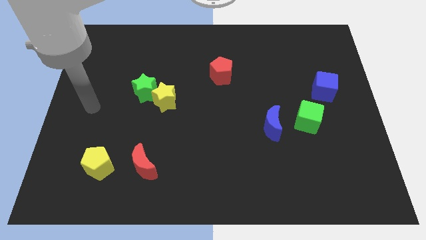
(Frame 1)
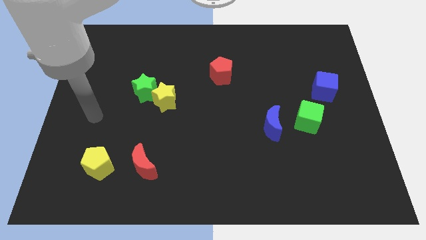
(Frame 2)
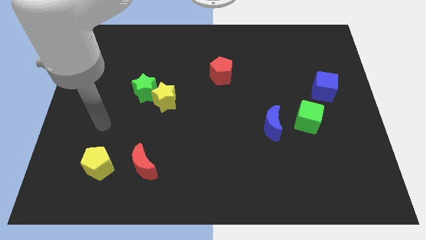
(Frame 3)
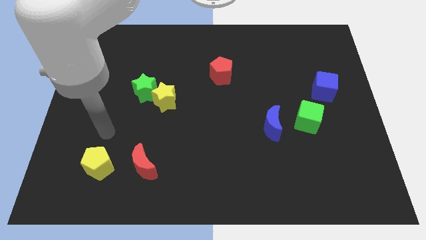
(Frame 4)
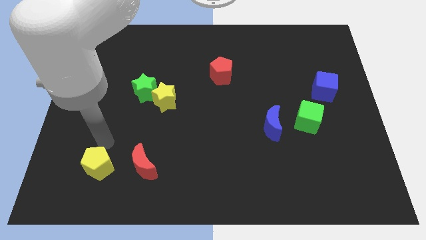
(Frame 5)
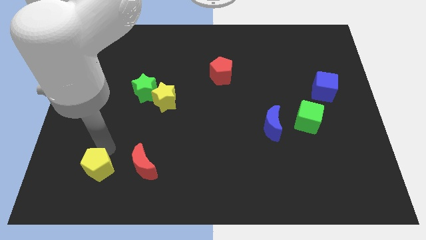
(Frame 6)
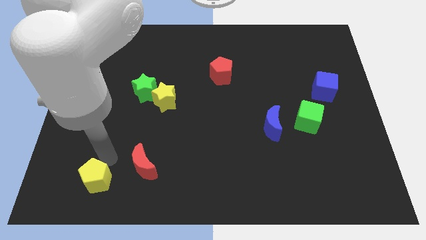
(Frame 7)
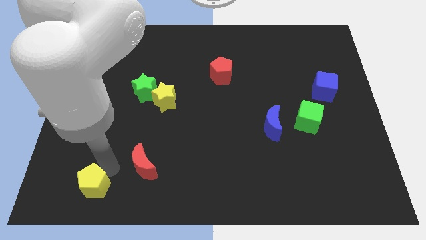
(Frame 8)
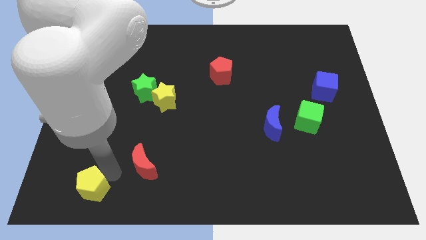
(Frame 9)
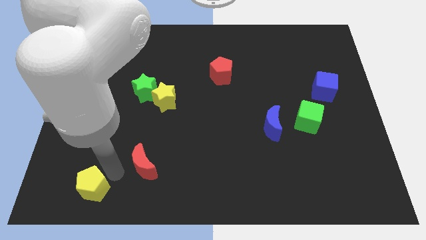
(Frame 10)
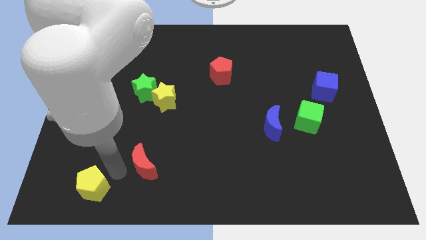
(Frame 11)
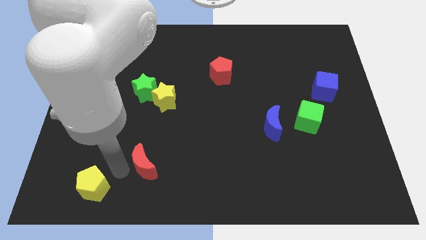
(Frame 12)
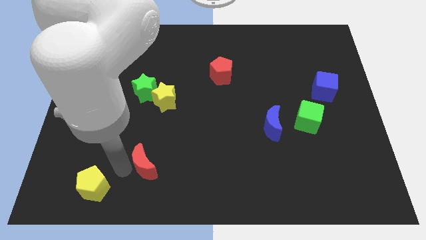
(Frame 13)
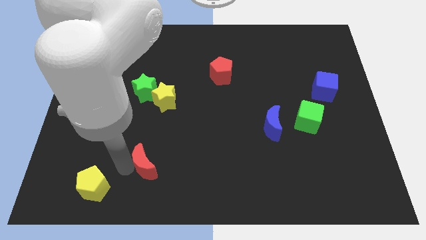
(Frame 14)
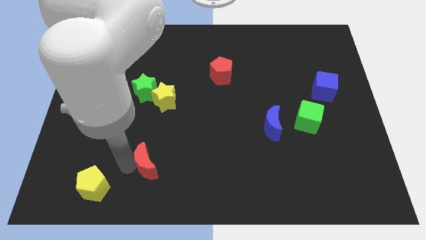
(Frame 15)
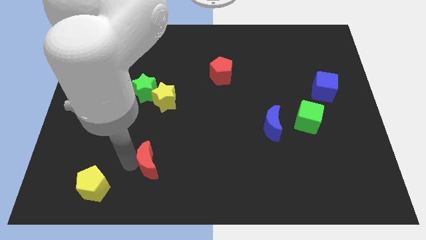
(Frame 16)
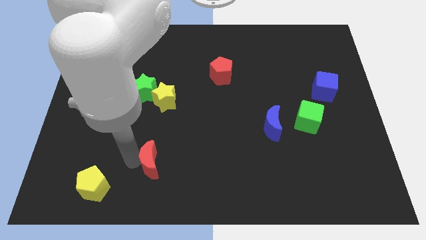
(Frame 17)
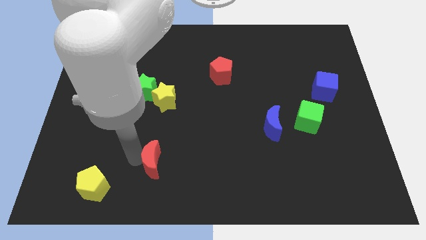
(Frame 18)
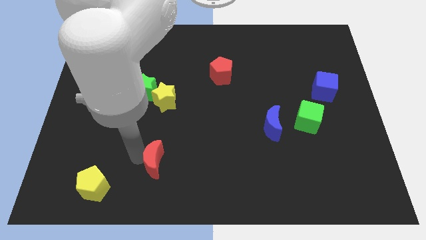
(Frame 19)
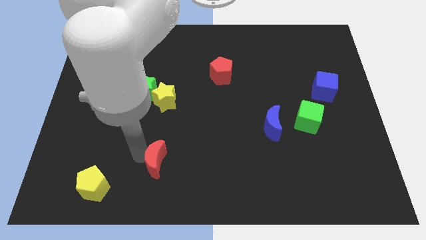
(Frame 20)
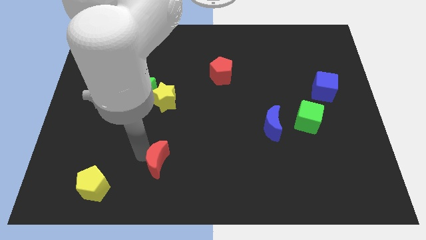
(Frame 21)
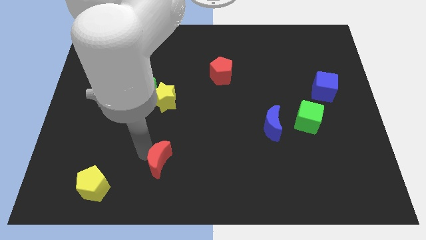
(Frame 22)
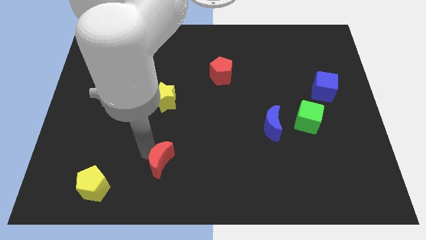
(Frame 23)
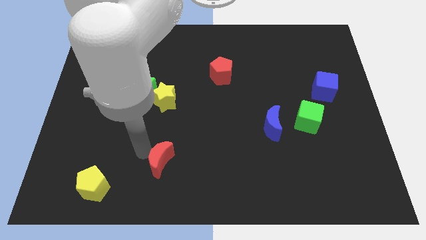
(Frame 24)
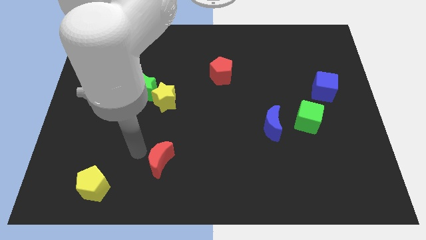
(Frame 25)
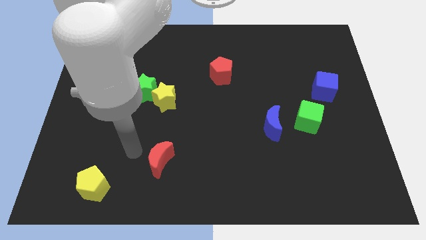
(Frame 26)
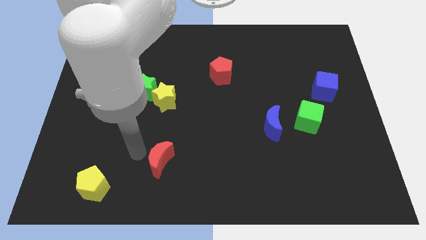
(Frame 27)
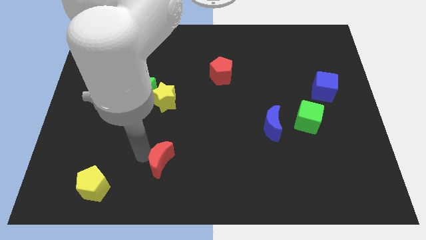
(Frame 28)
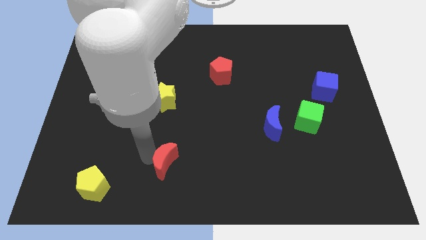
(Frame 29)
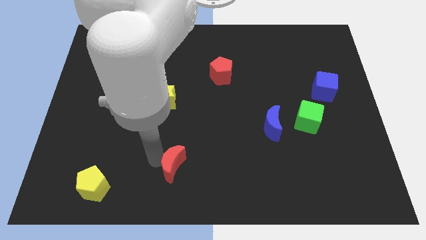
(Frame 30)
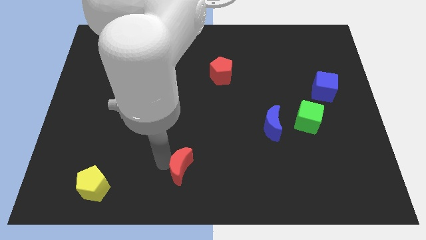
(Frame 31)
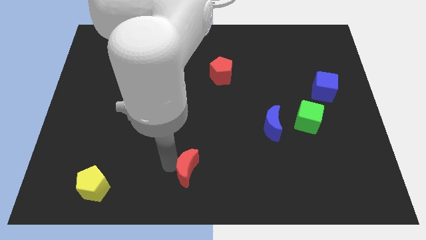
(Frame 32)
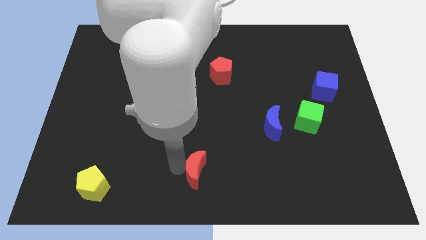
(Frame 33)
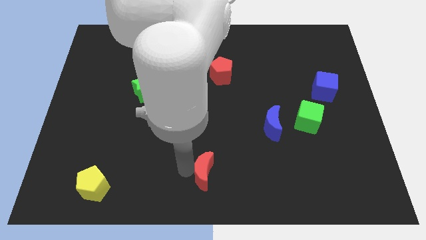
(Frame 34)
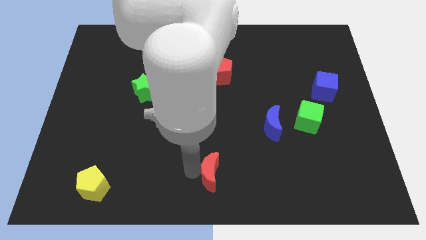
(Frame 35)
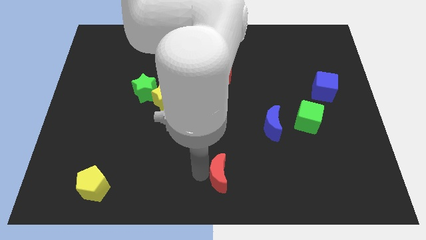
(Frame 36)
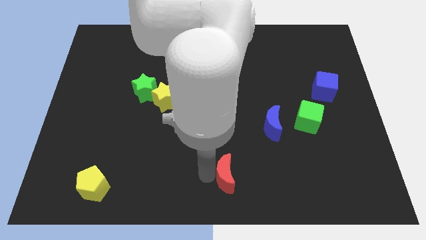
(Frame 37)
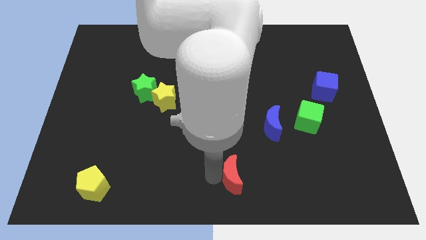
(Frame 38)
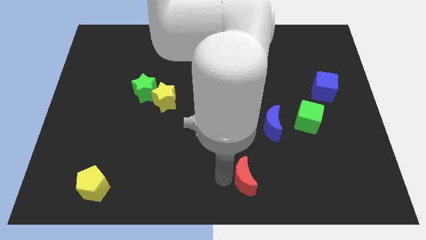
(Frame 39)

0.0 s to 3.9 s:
push the red moon to the right

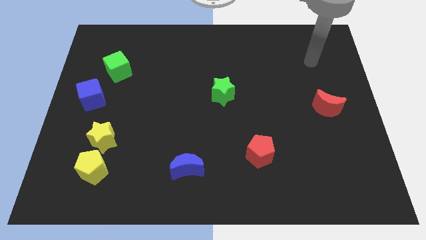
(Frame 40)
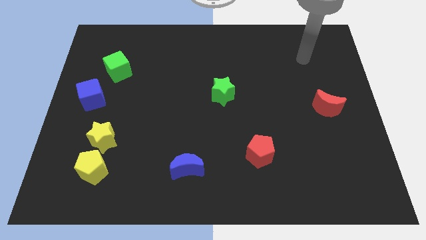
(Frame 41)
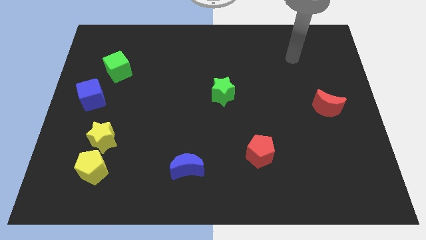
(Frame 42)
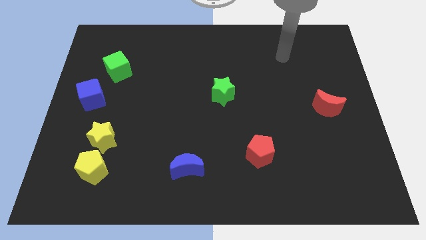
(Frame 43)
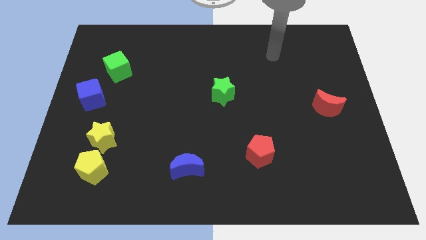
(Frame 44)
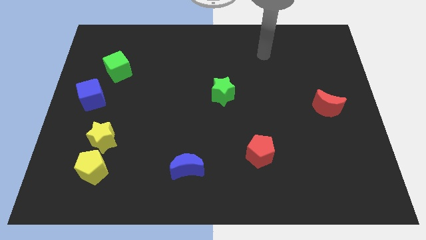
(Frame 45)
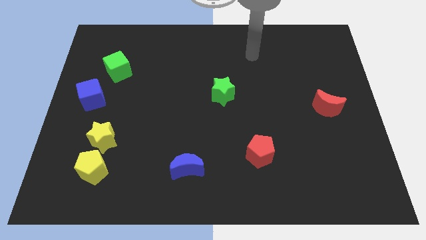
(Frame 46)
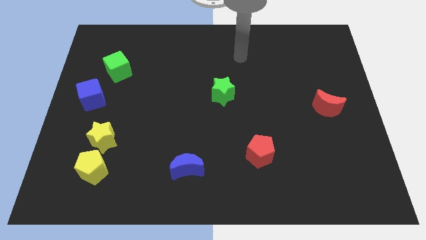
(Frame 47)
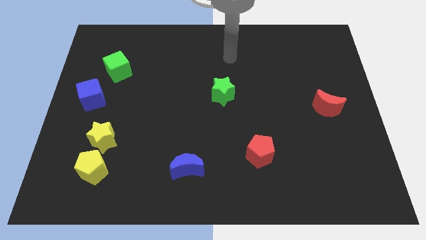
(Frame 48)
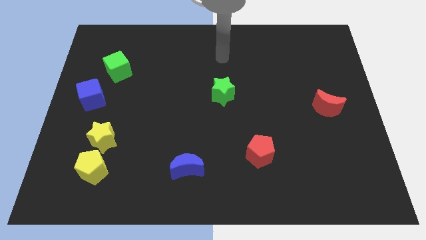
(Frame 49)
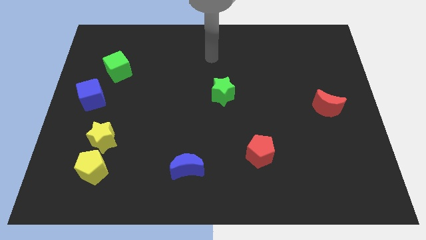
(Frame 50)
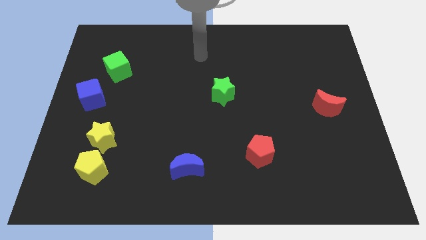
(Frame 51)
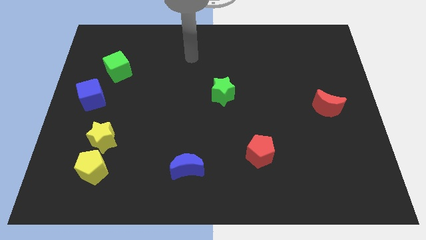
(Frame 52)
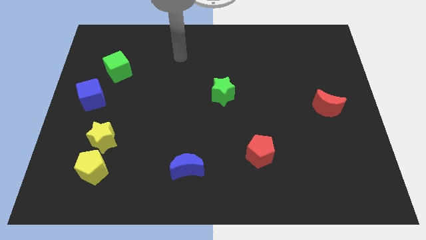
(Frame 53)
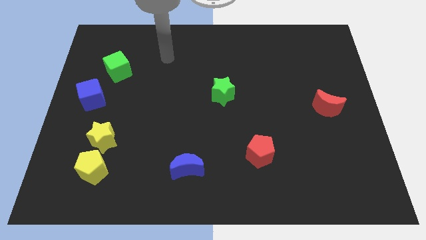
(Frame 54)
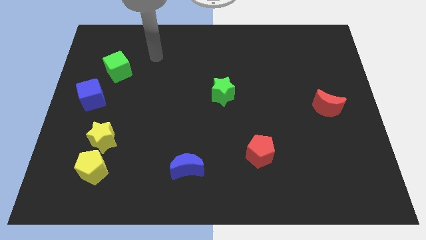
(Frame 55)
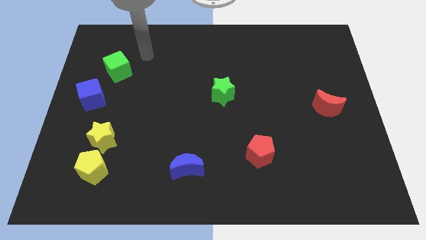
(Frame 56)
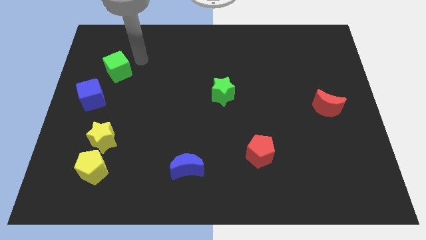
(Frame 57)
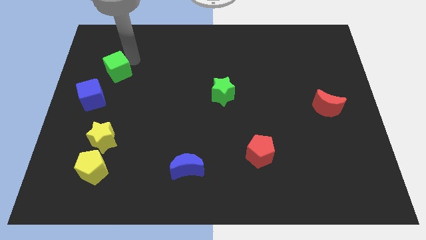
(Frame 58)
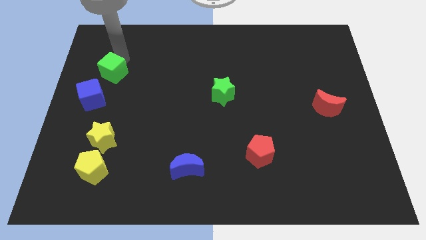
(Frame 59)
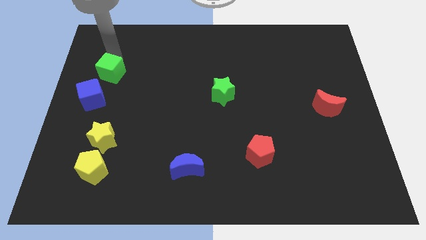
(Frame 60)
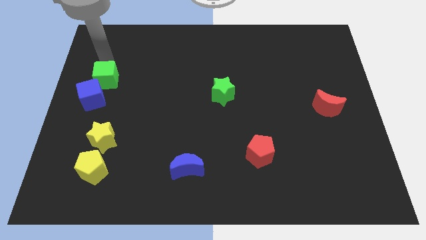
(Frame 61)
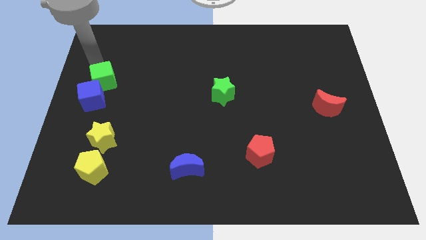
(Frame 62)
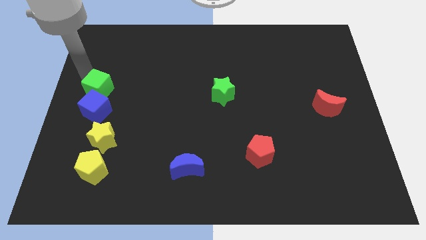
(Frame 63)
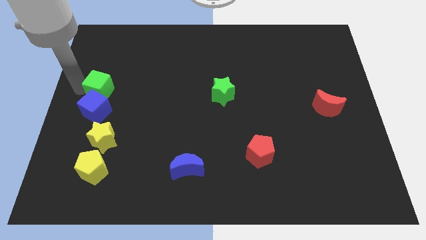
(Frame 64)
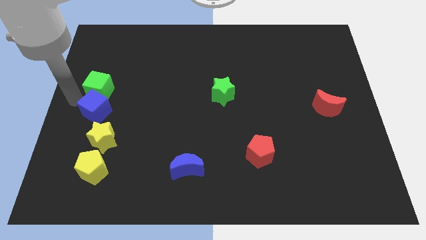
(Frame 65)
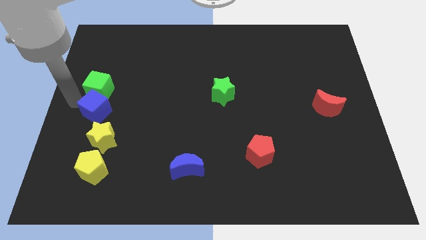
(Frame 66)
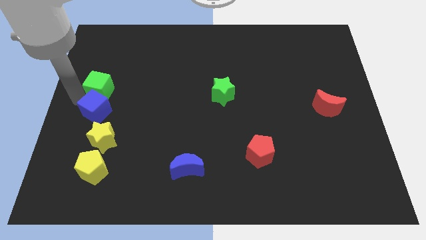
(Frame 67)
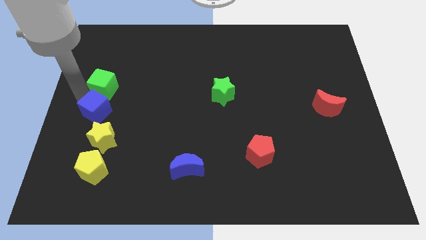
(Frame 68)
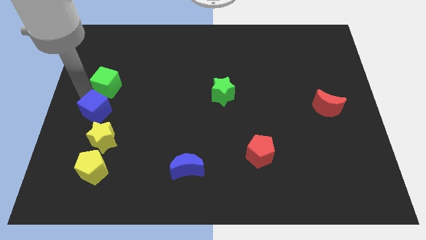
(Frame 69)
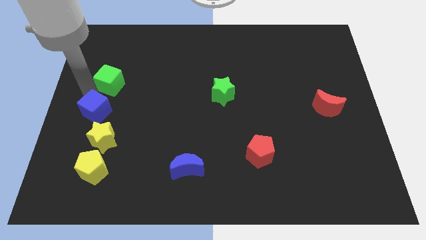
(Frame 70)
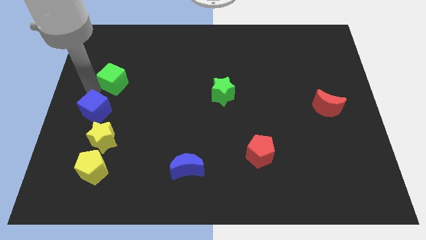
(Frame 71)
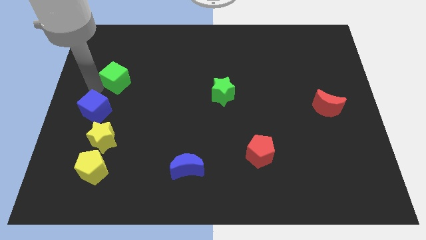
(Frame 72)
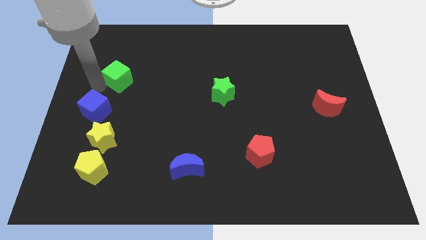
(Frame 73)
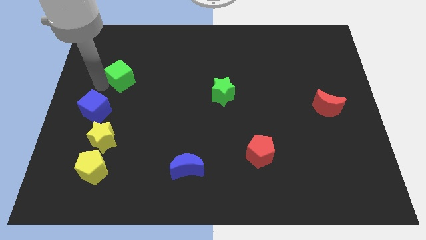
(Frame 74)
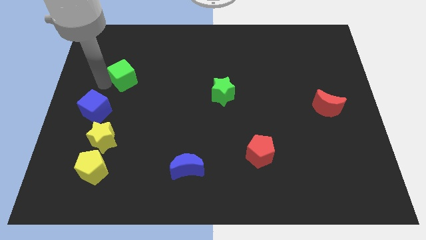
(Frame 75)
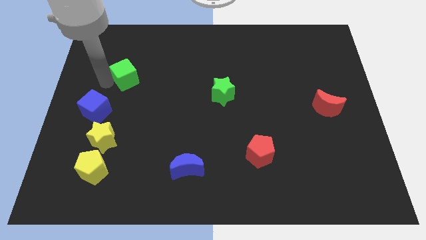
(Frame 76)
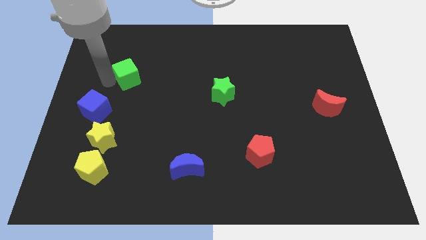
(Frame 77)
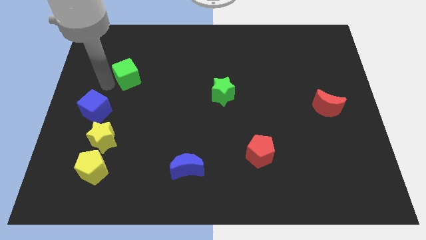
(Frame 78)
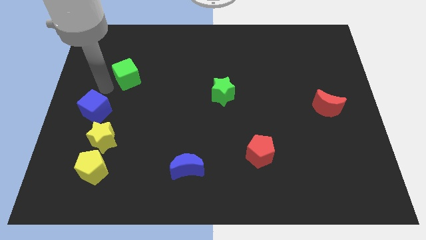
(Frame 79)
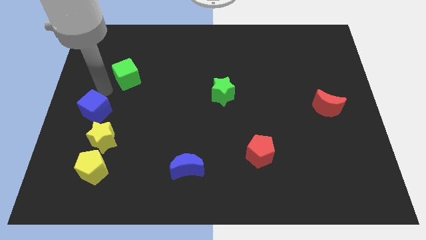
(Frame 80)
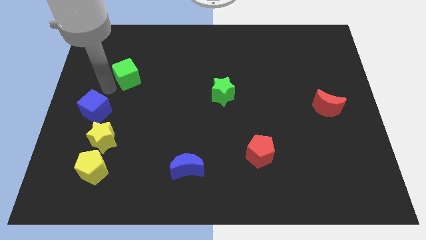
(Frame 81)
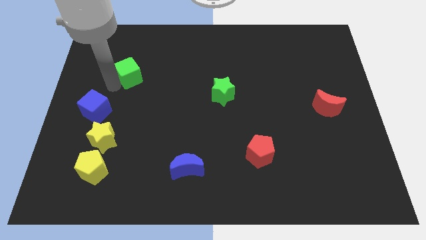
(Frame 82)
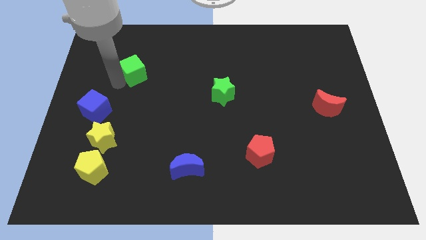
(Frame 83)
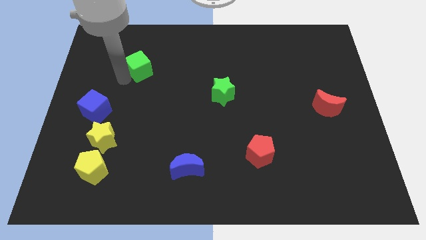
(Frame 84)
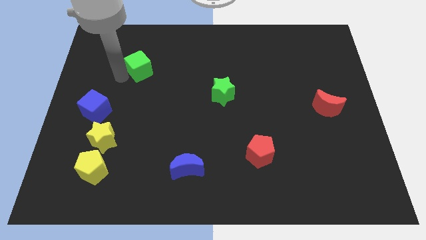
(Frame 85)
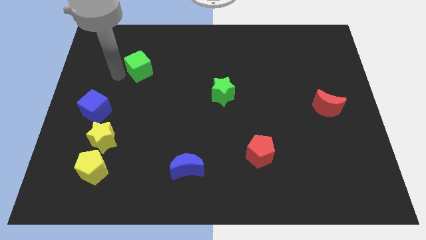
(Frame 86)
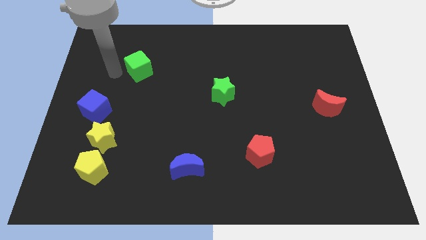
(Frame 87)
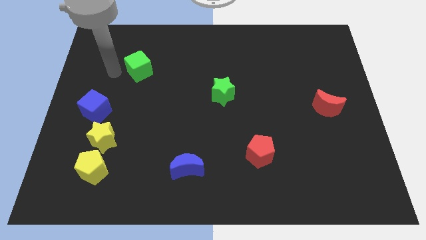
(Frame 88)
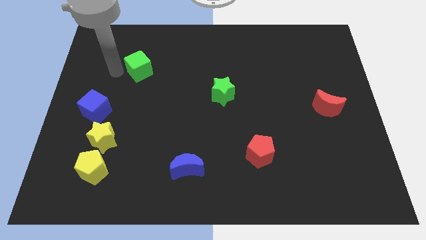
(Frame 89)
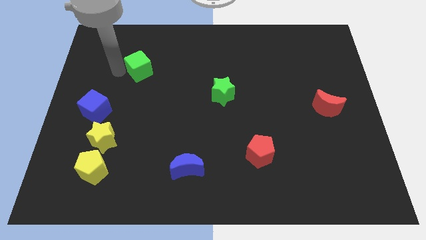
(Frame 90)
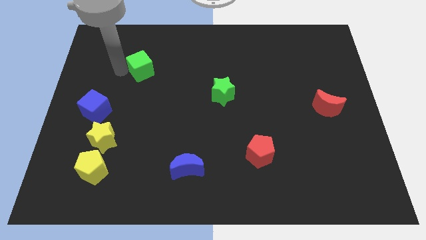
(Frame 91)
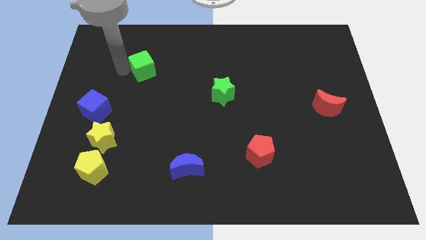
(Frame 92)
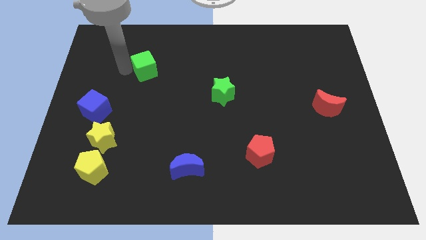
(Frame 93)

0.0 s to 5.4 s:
push the green cube right a bit
